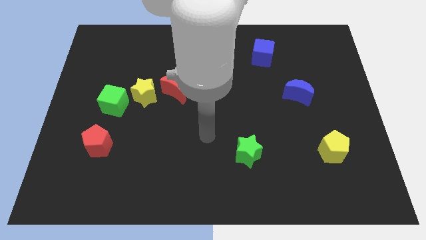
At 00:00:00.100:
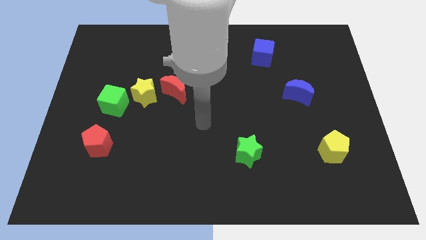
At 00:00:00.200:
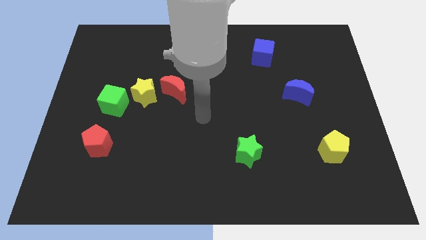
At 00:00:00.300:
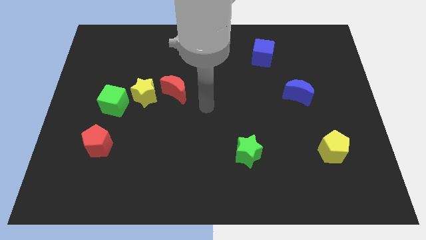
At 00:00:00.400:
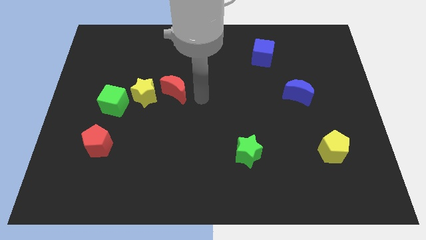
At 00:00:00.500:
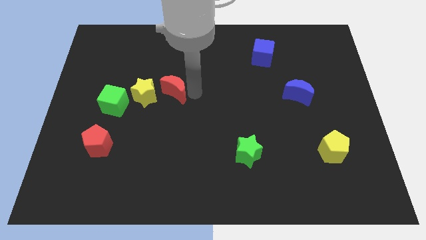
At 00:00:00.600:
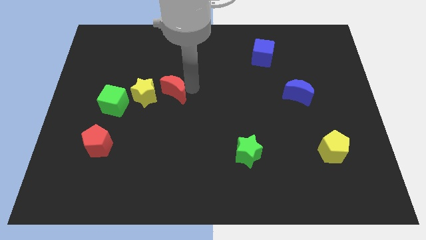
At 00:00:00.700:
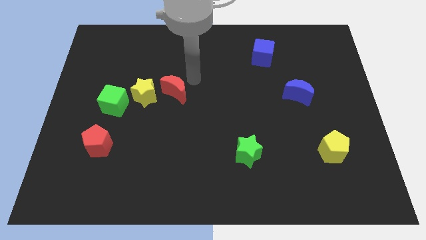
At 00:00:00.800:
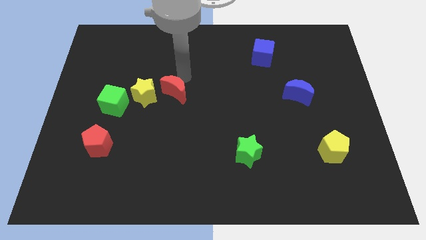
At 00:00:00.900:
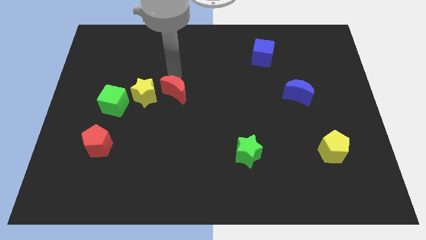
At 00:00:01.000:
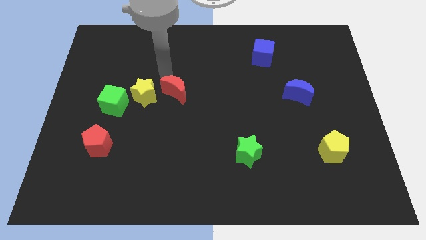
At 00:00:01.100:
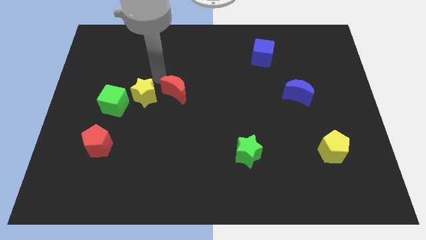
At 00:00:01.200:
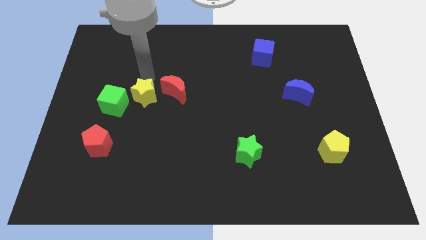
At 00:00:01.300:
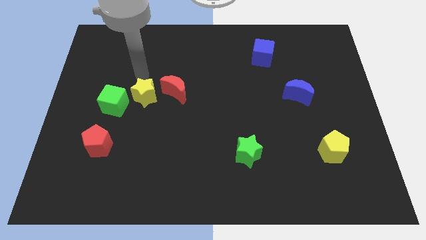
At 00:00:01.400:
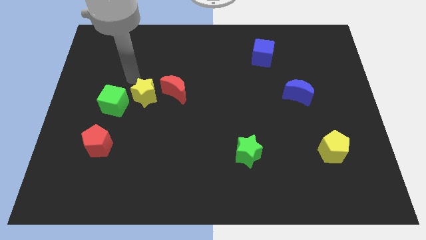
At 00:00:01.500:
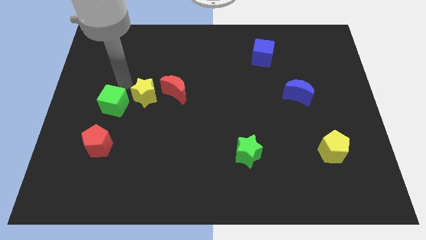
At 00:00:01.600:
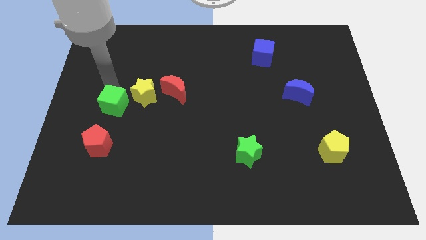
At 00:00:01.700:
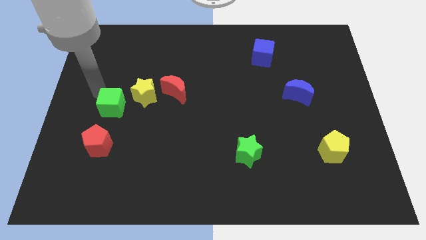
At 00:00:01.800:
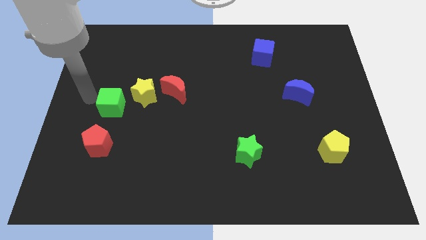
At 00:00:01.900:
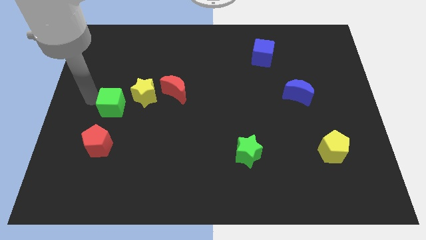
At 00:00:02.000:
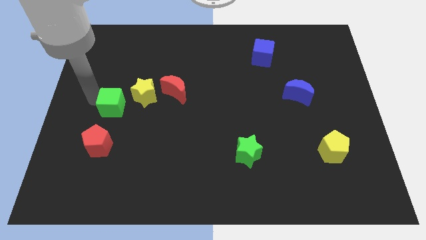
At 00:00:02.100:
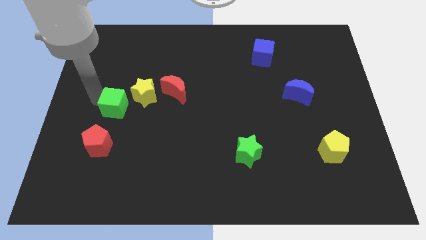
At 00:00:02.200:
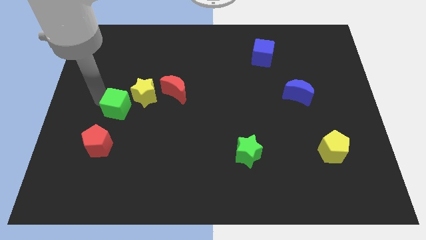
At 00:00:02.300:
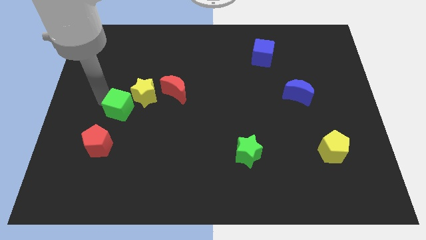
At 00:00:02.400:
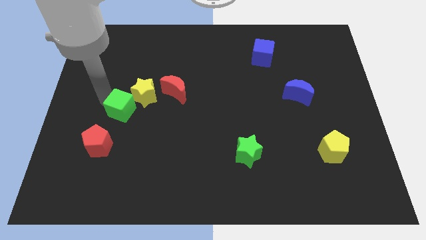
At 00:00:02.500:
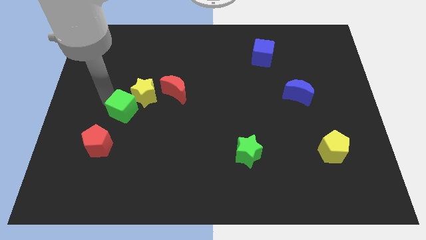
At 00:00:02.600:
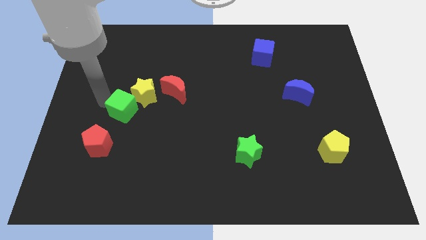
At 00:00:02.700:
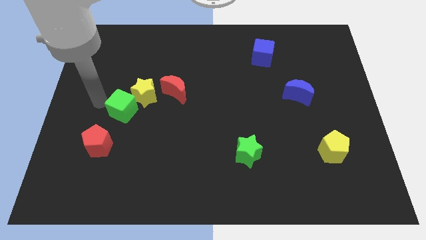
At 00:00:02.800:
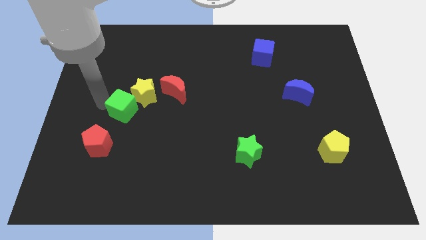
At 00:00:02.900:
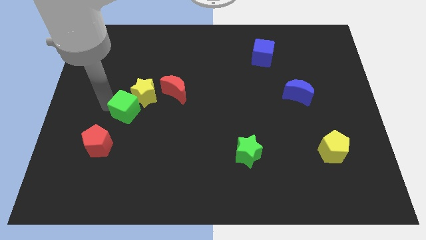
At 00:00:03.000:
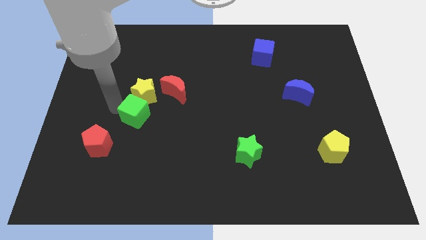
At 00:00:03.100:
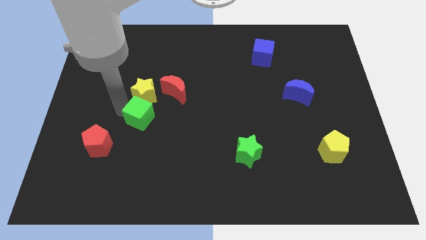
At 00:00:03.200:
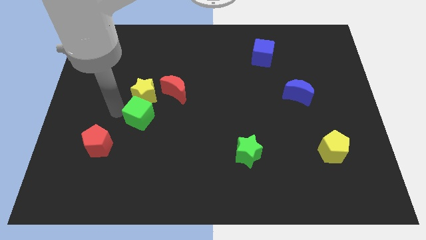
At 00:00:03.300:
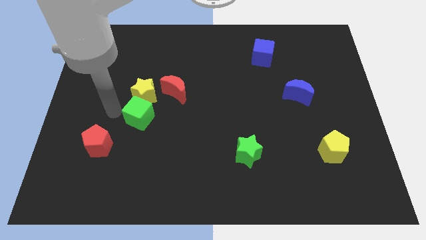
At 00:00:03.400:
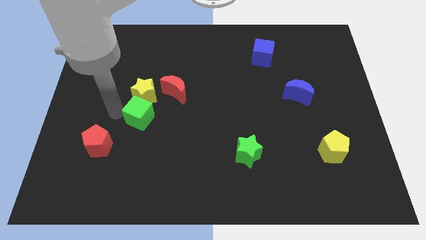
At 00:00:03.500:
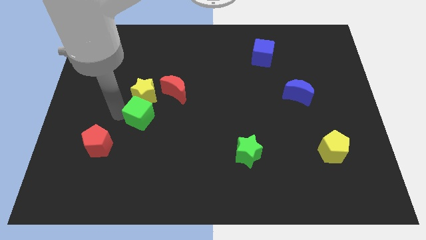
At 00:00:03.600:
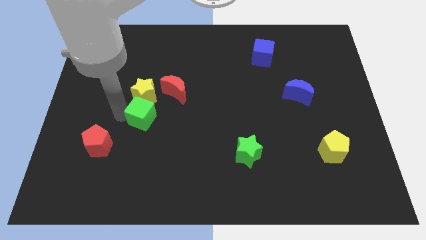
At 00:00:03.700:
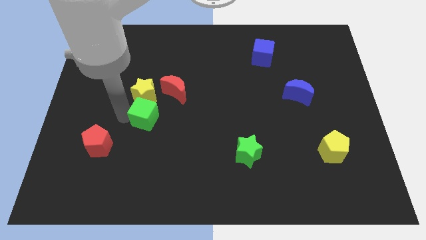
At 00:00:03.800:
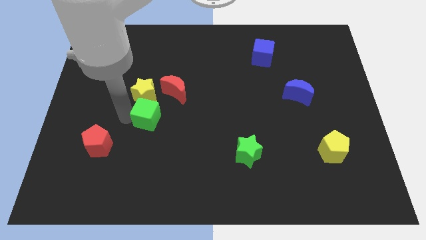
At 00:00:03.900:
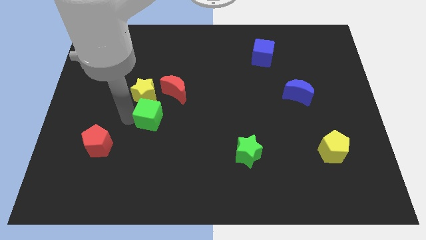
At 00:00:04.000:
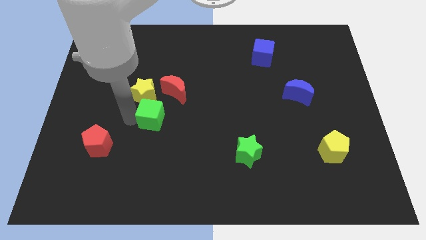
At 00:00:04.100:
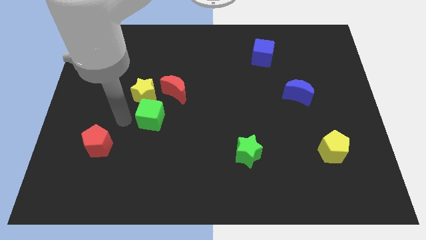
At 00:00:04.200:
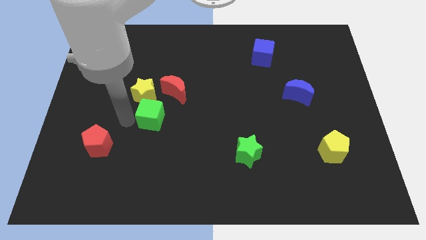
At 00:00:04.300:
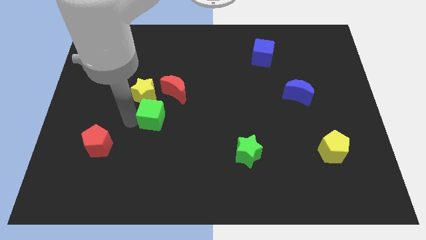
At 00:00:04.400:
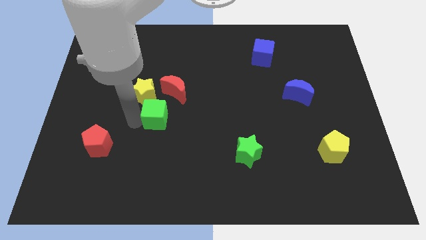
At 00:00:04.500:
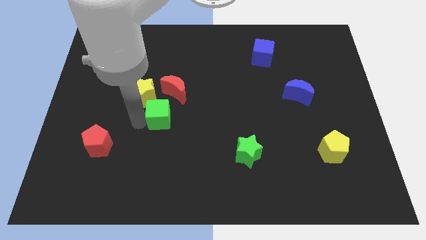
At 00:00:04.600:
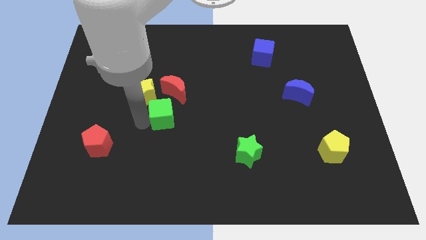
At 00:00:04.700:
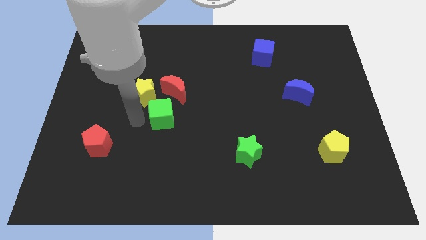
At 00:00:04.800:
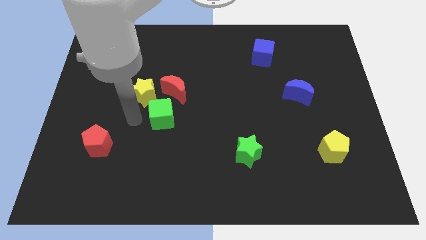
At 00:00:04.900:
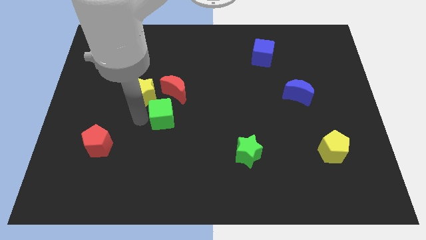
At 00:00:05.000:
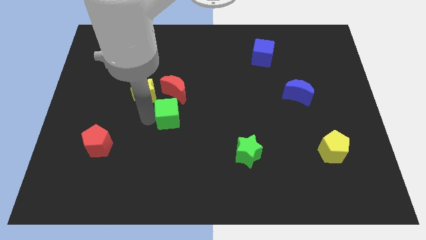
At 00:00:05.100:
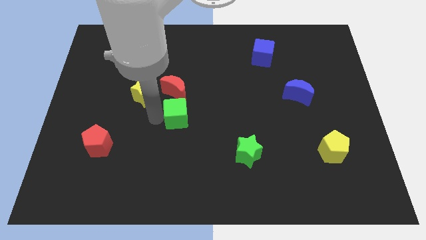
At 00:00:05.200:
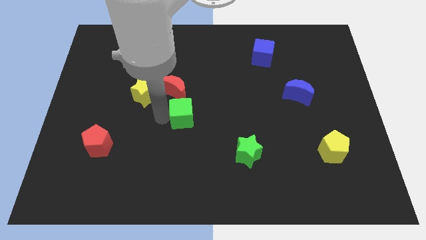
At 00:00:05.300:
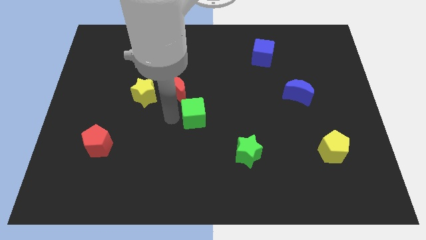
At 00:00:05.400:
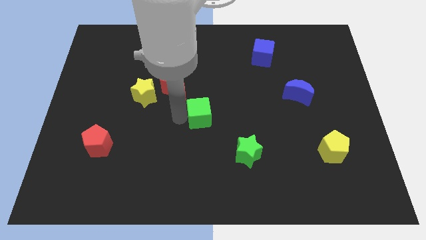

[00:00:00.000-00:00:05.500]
move the green cube to the right

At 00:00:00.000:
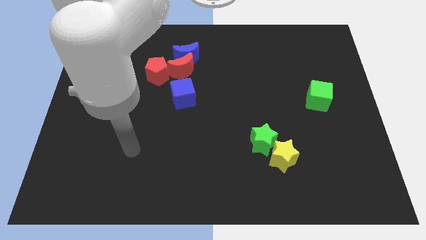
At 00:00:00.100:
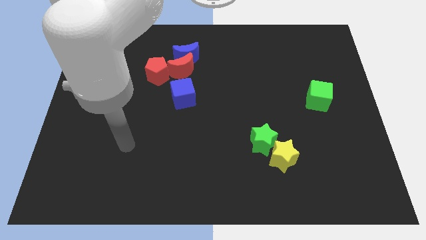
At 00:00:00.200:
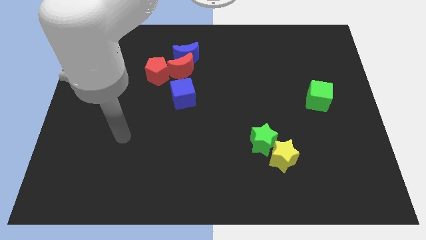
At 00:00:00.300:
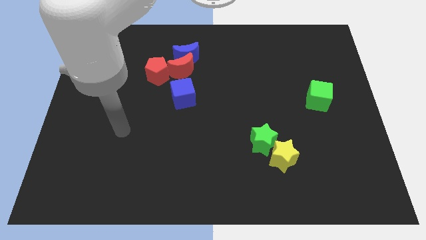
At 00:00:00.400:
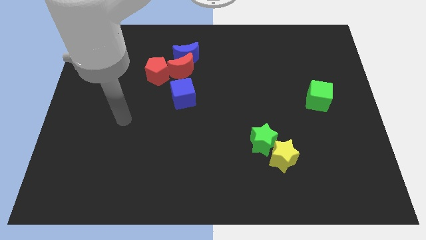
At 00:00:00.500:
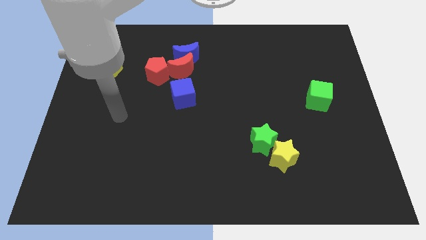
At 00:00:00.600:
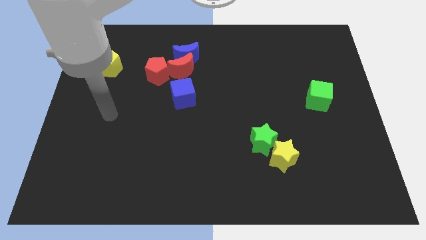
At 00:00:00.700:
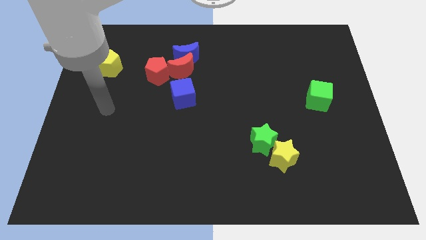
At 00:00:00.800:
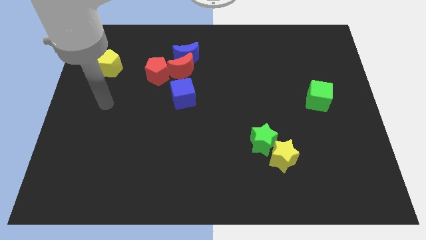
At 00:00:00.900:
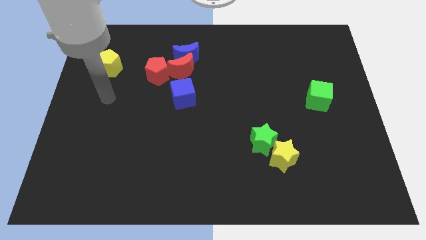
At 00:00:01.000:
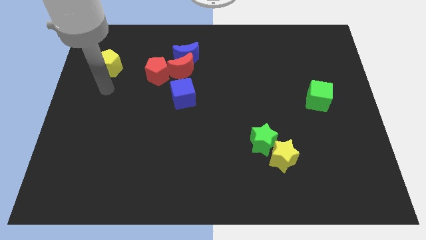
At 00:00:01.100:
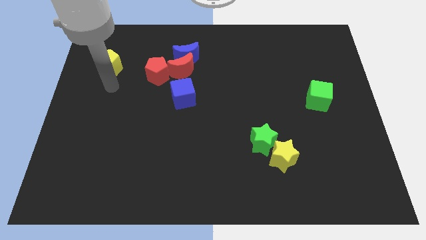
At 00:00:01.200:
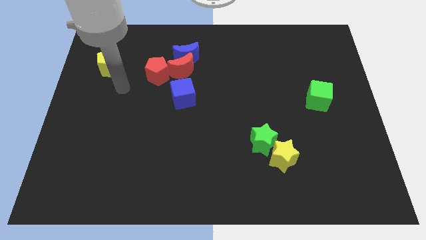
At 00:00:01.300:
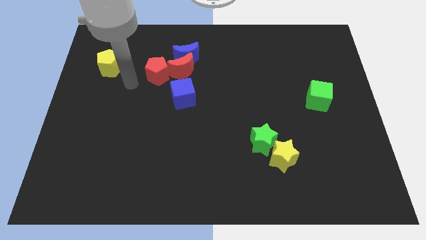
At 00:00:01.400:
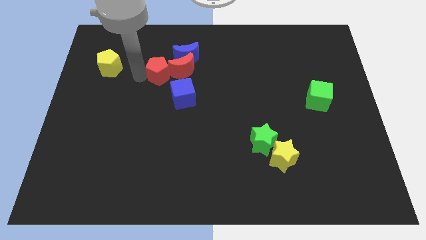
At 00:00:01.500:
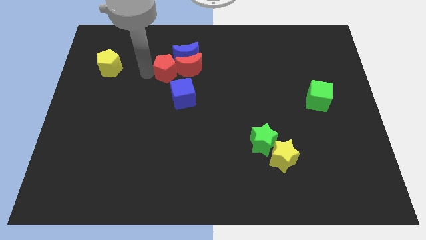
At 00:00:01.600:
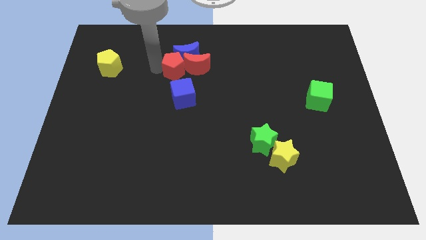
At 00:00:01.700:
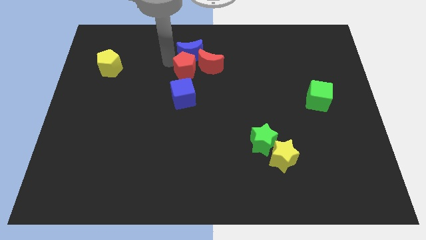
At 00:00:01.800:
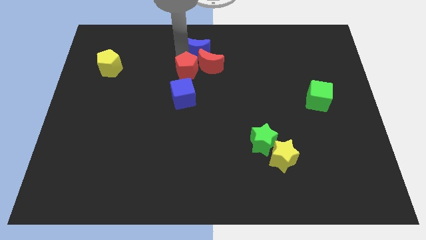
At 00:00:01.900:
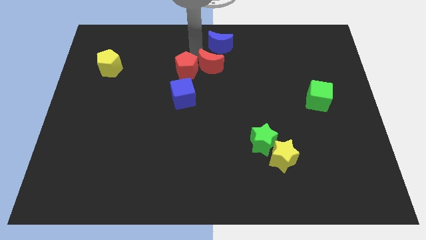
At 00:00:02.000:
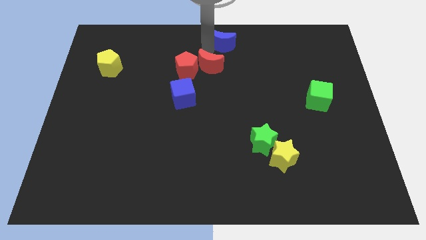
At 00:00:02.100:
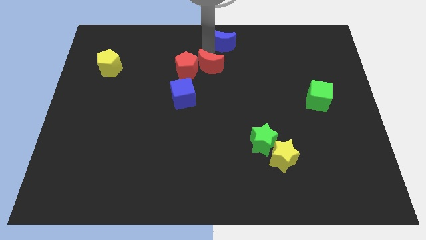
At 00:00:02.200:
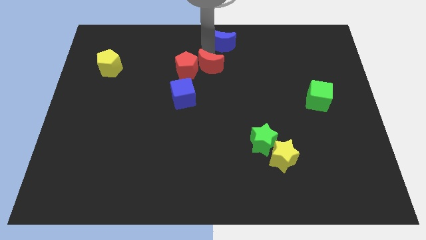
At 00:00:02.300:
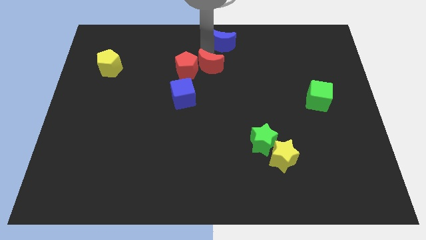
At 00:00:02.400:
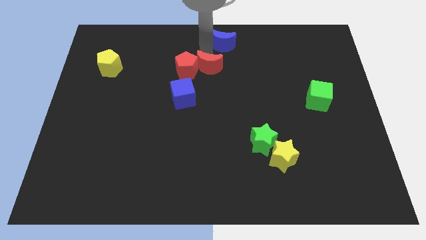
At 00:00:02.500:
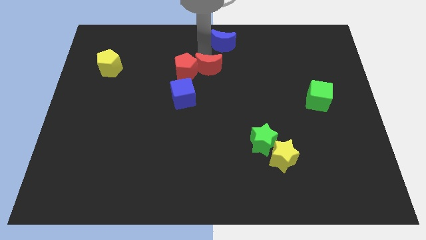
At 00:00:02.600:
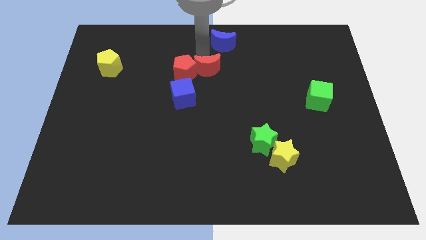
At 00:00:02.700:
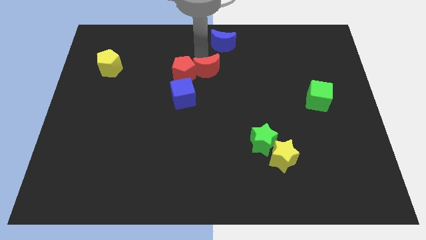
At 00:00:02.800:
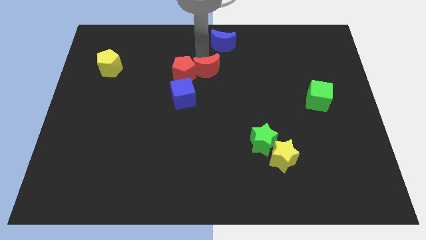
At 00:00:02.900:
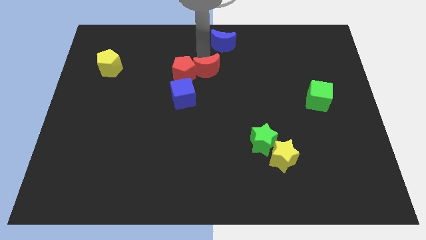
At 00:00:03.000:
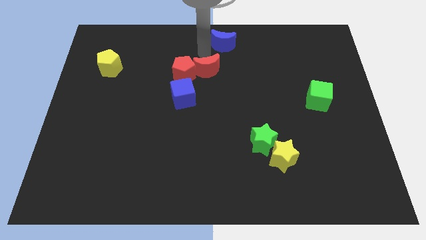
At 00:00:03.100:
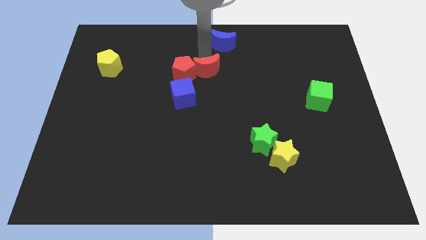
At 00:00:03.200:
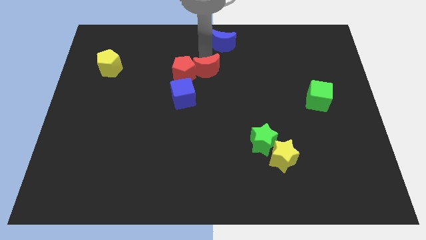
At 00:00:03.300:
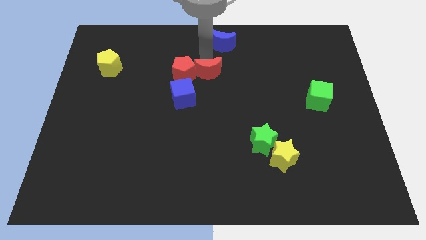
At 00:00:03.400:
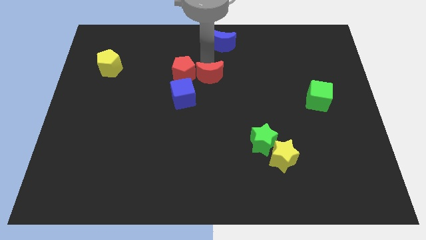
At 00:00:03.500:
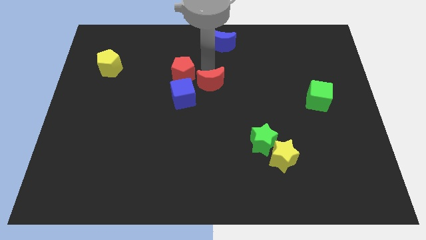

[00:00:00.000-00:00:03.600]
slide the red moon somewhat downwards and then right
